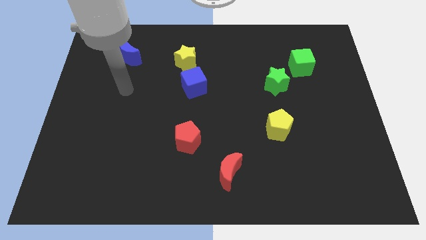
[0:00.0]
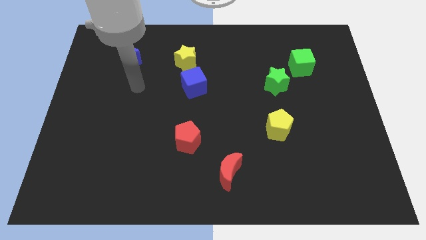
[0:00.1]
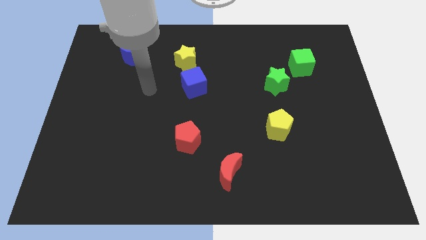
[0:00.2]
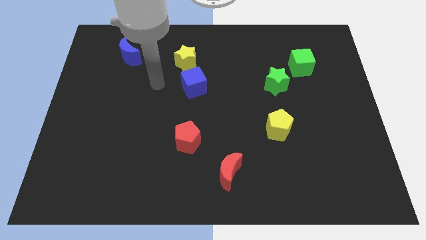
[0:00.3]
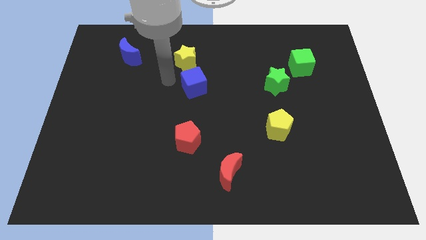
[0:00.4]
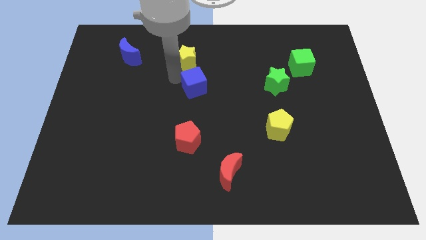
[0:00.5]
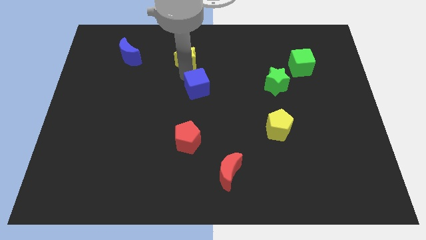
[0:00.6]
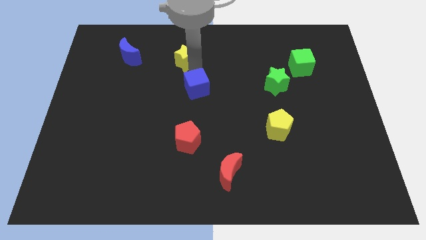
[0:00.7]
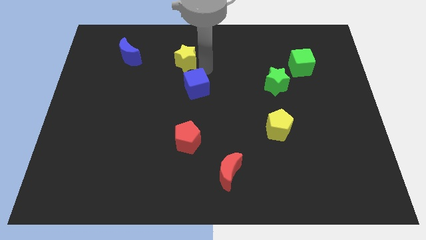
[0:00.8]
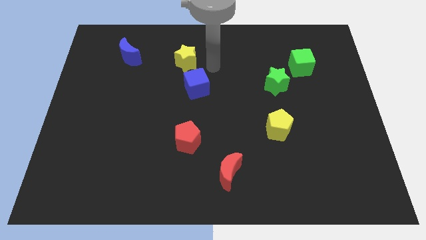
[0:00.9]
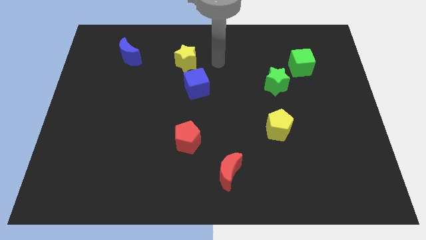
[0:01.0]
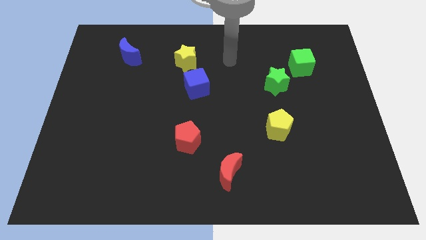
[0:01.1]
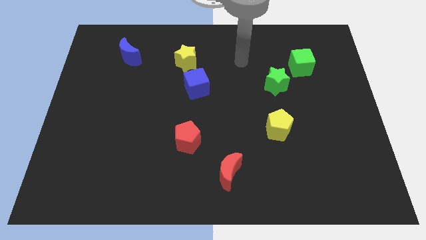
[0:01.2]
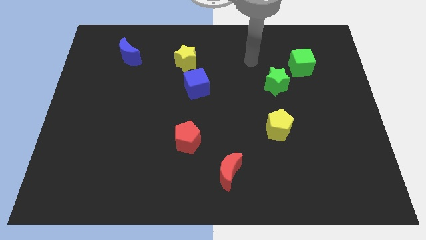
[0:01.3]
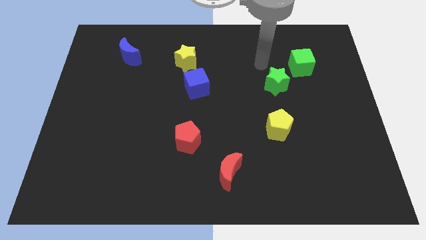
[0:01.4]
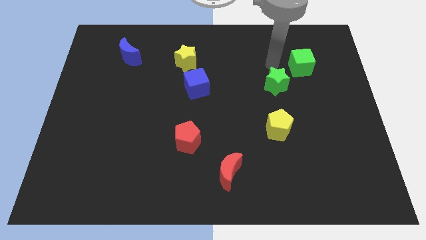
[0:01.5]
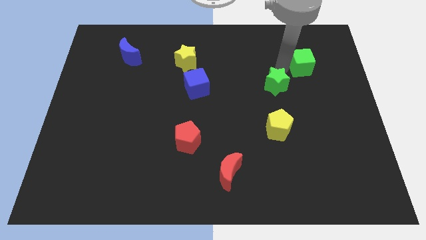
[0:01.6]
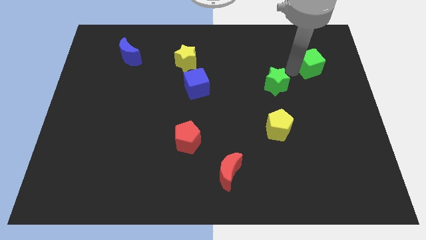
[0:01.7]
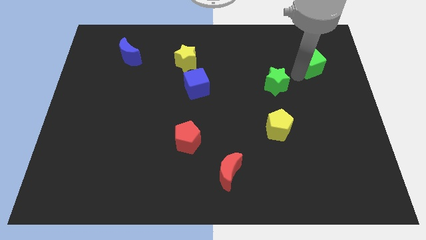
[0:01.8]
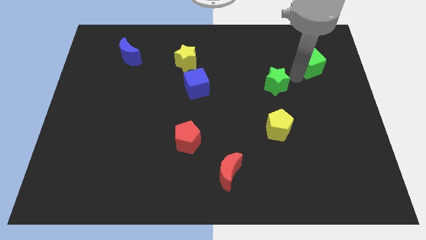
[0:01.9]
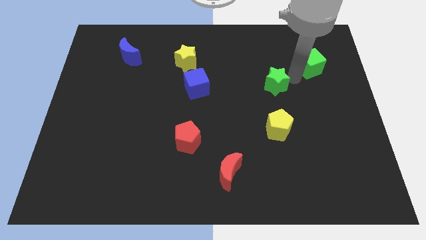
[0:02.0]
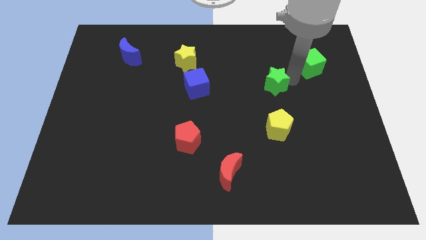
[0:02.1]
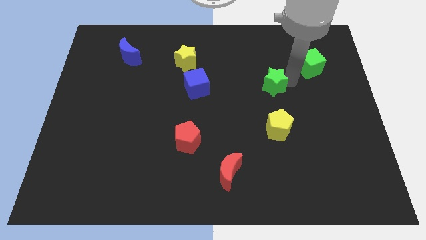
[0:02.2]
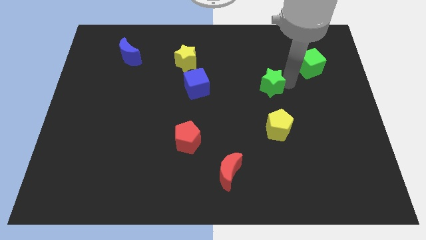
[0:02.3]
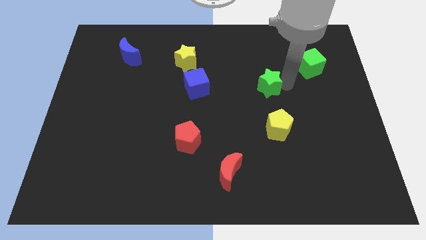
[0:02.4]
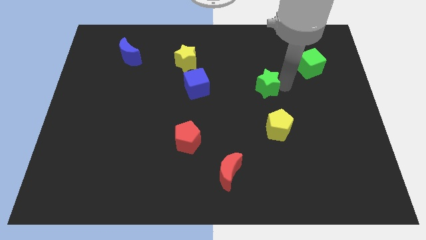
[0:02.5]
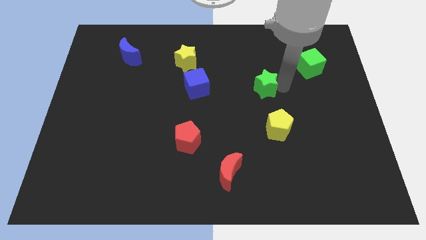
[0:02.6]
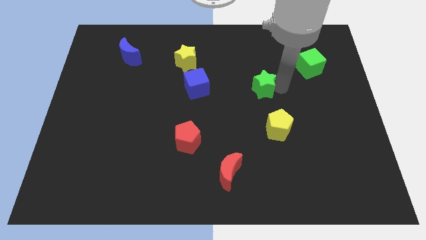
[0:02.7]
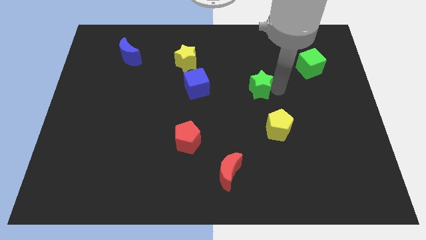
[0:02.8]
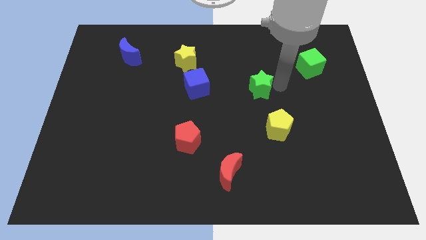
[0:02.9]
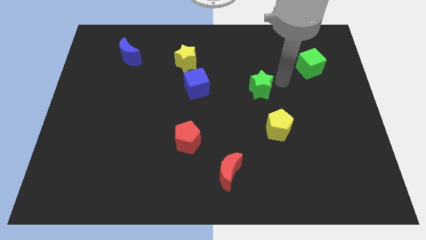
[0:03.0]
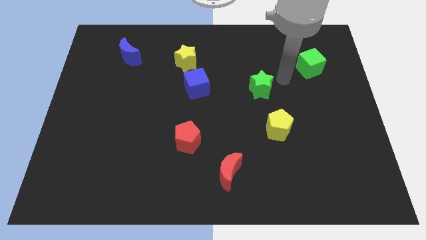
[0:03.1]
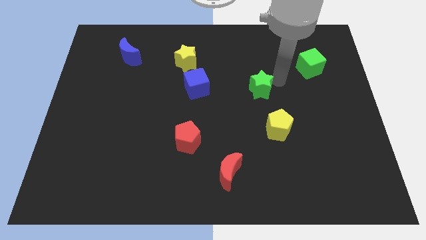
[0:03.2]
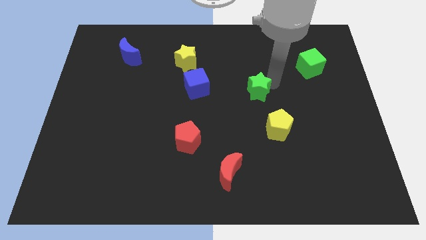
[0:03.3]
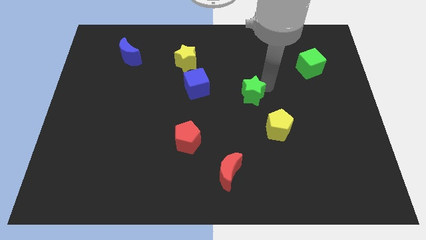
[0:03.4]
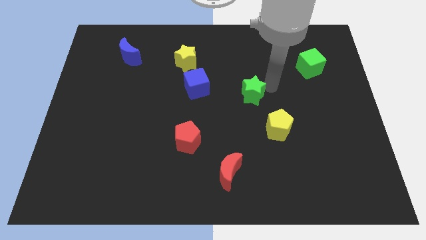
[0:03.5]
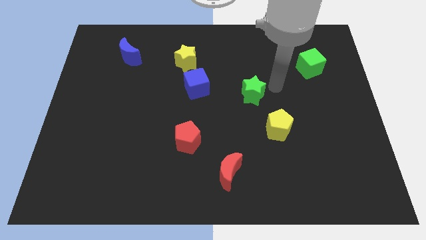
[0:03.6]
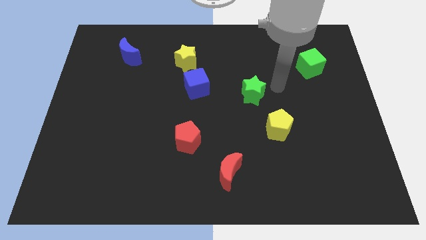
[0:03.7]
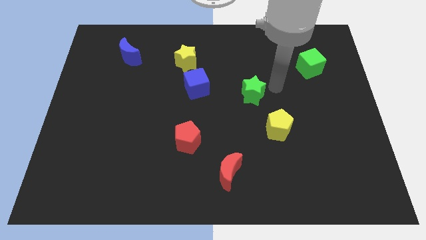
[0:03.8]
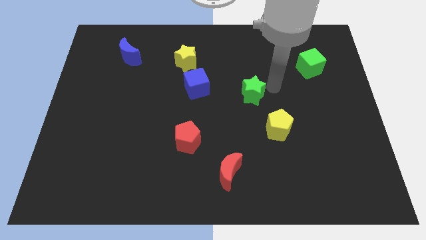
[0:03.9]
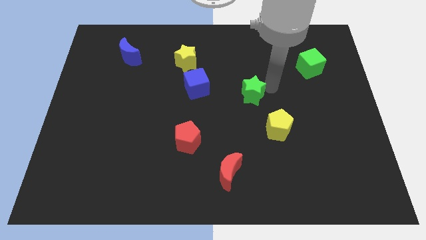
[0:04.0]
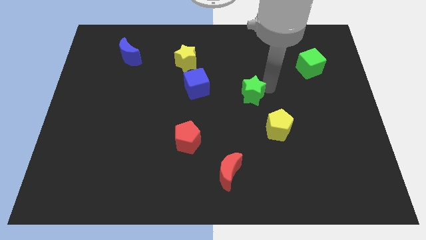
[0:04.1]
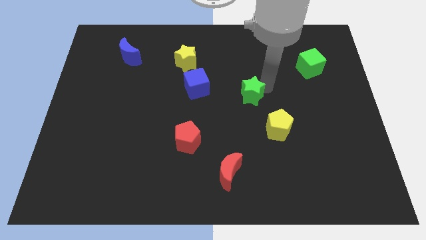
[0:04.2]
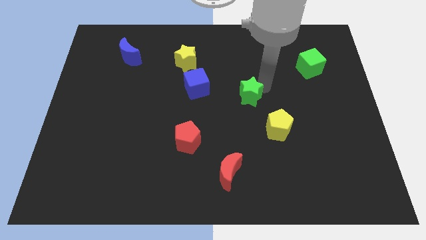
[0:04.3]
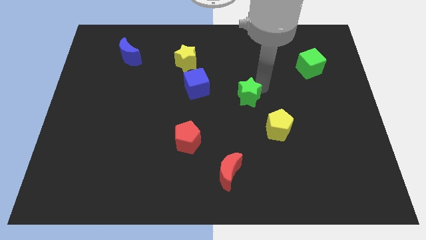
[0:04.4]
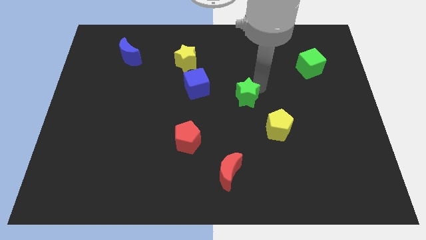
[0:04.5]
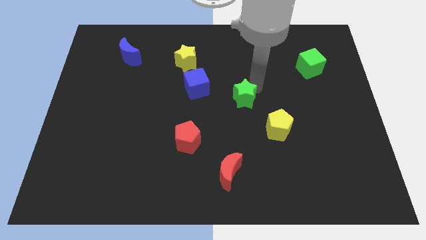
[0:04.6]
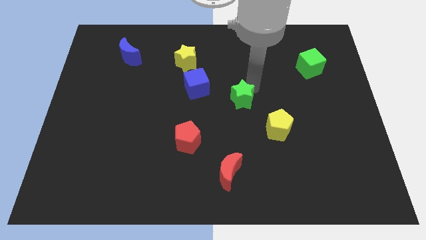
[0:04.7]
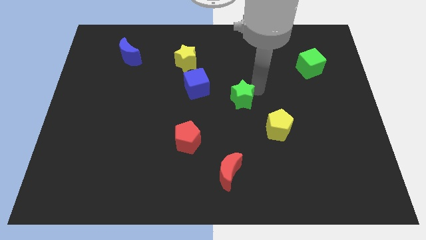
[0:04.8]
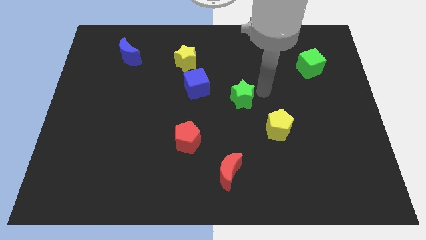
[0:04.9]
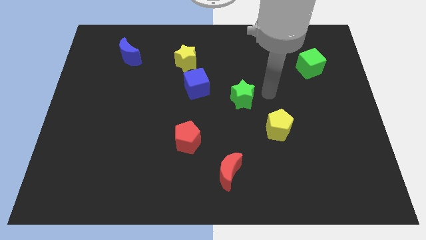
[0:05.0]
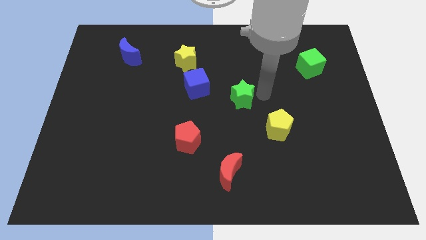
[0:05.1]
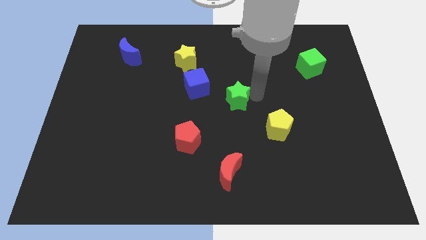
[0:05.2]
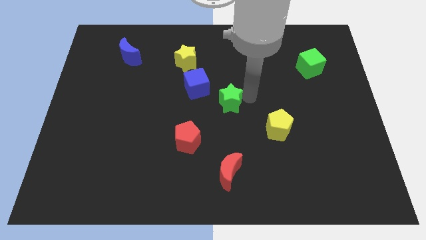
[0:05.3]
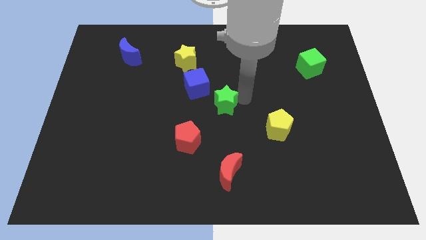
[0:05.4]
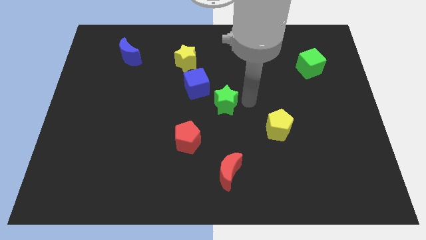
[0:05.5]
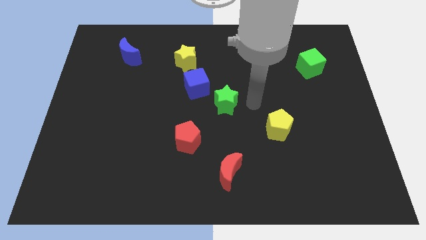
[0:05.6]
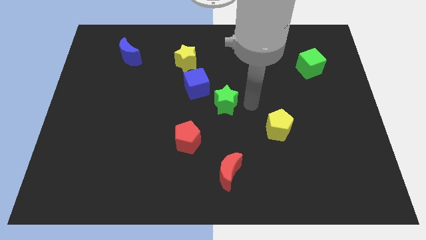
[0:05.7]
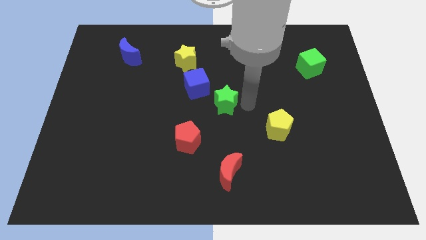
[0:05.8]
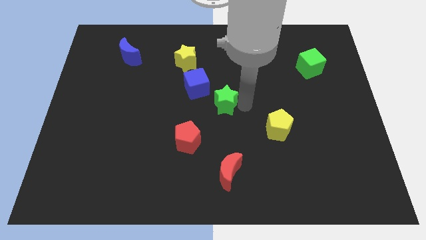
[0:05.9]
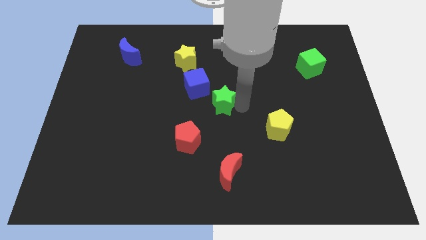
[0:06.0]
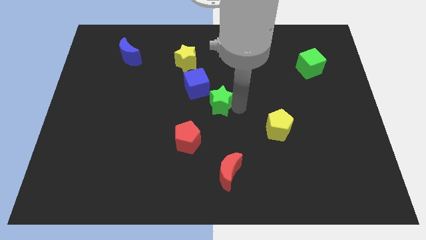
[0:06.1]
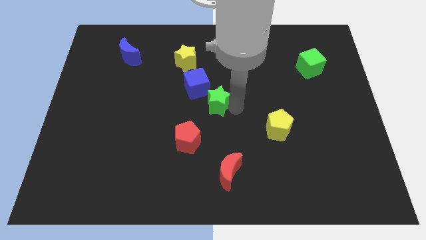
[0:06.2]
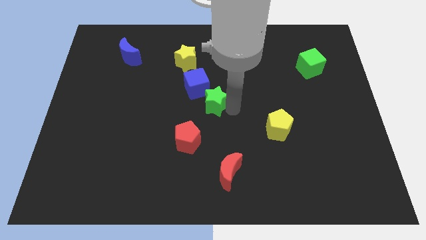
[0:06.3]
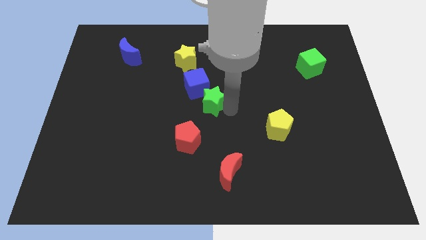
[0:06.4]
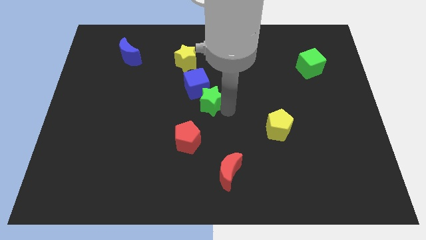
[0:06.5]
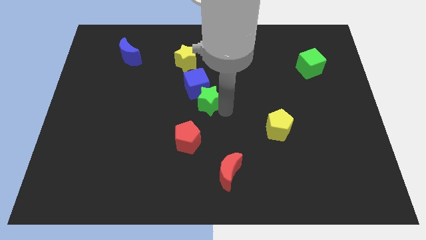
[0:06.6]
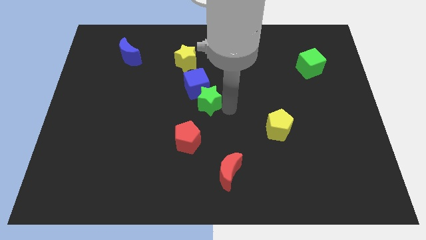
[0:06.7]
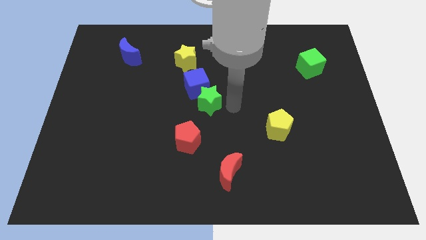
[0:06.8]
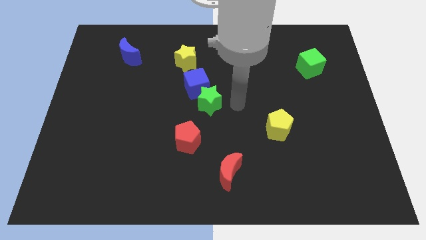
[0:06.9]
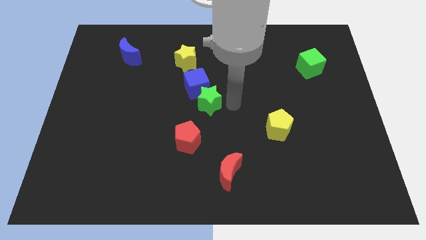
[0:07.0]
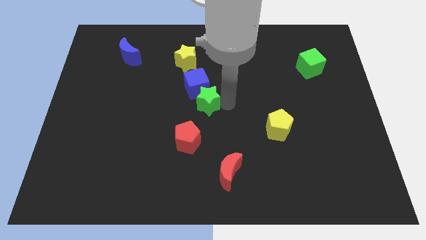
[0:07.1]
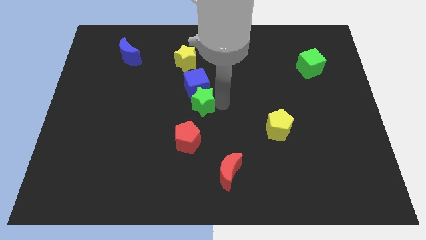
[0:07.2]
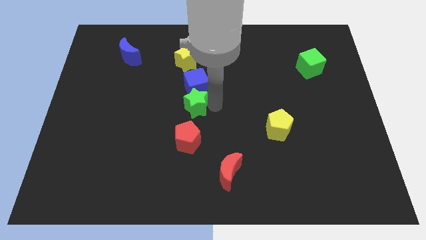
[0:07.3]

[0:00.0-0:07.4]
move the green star below the yellow star
